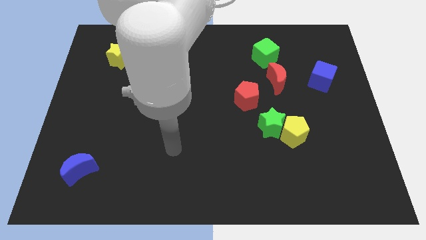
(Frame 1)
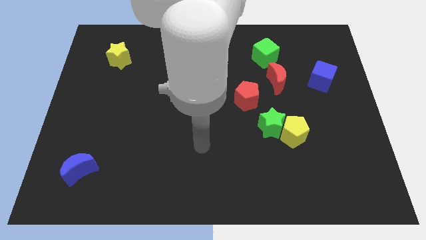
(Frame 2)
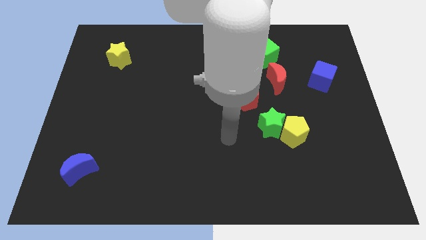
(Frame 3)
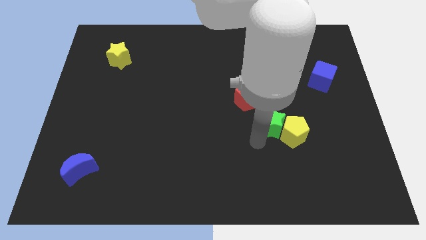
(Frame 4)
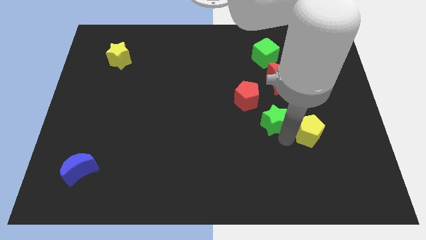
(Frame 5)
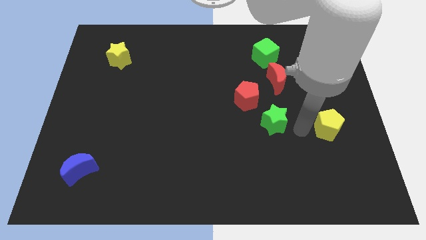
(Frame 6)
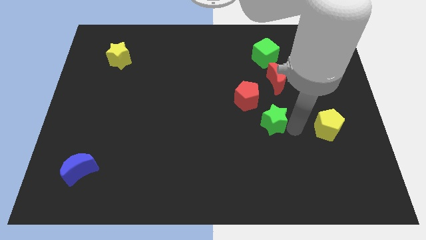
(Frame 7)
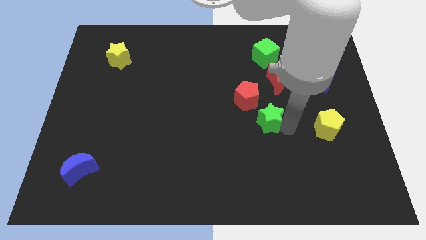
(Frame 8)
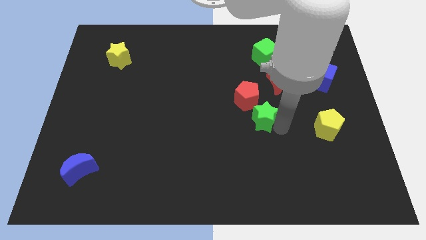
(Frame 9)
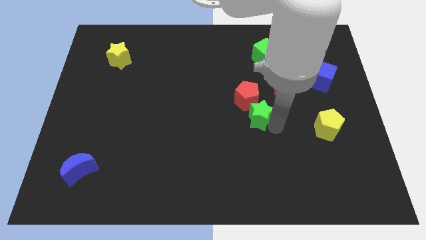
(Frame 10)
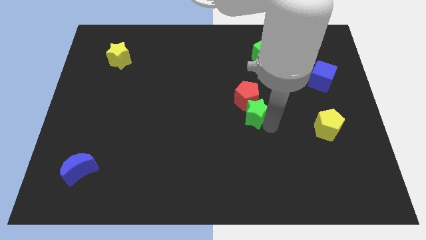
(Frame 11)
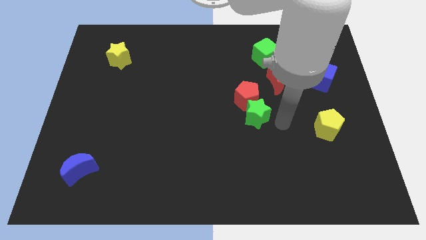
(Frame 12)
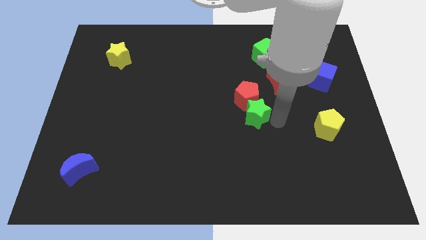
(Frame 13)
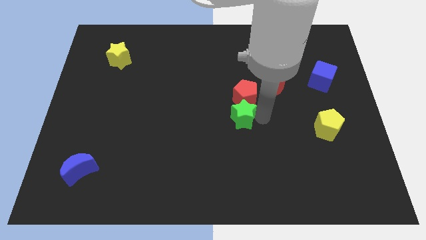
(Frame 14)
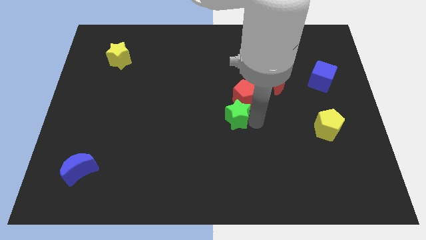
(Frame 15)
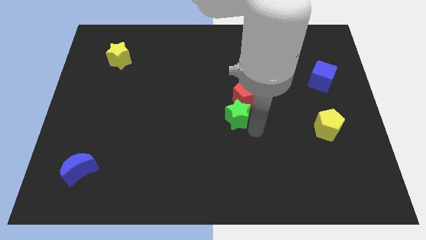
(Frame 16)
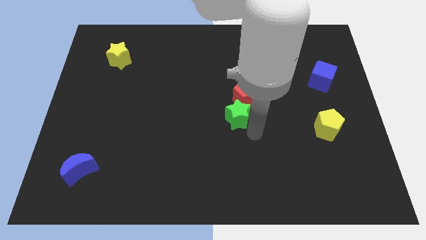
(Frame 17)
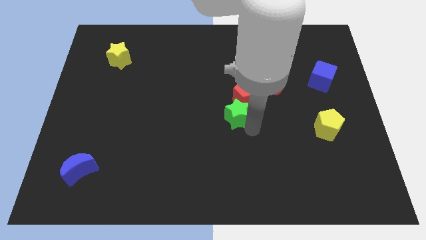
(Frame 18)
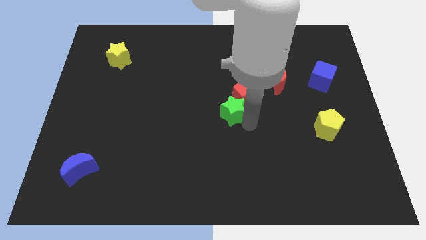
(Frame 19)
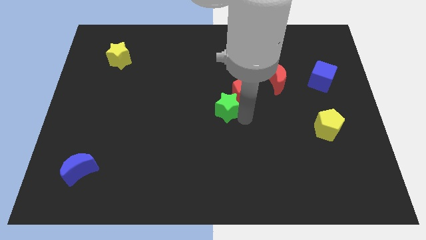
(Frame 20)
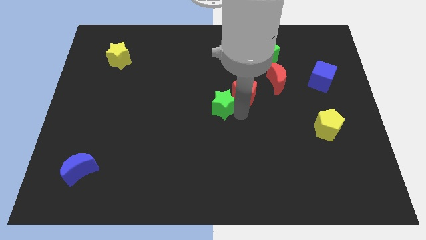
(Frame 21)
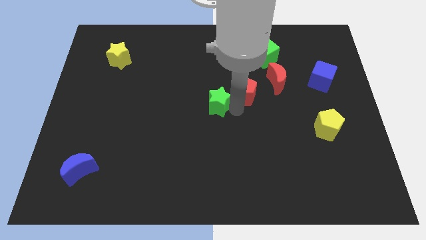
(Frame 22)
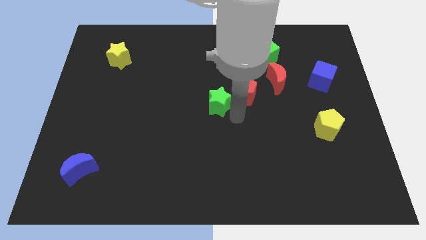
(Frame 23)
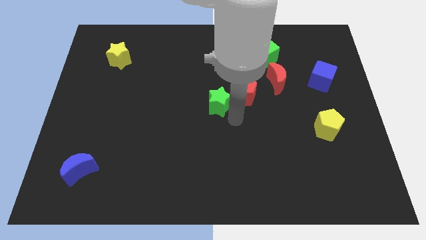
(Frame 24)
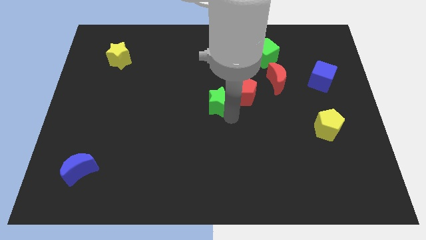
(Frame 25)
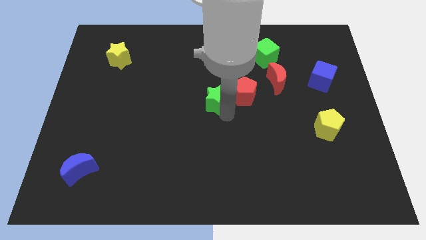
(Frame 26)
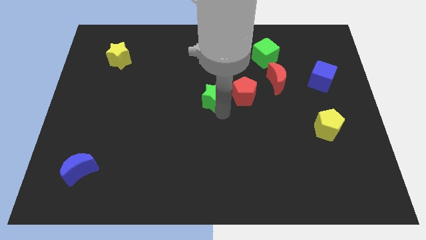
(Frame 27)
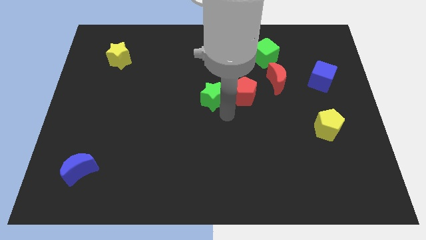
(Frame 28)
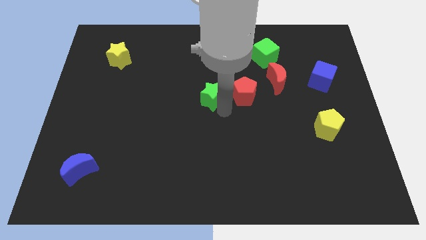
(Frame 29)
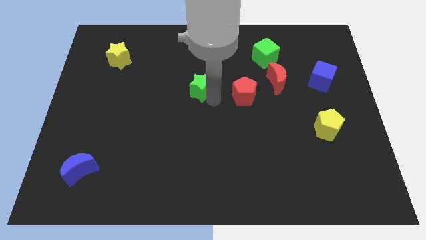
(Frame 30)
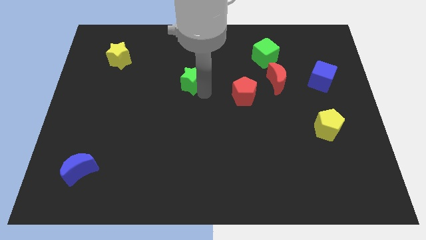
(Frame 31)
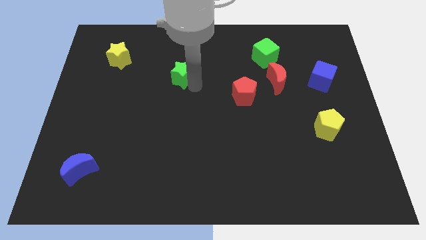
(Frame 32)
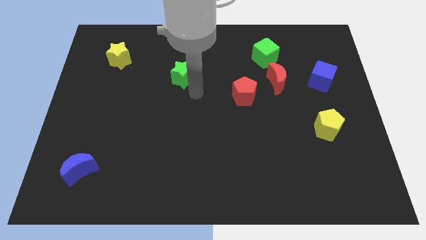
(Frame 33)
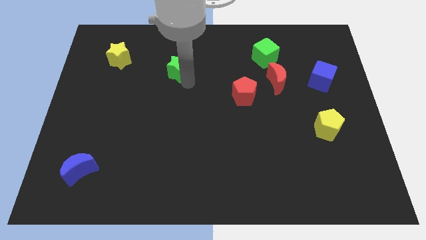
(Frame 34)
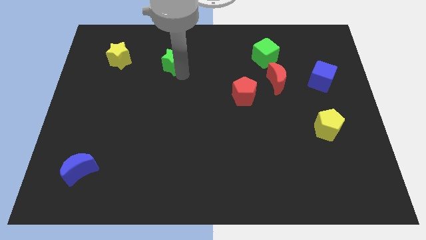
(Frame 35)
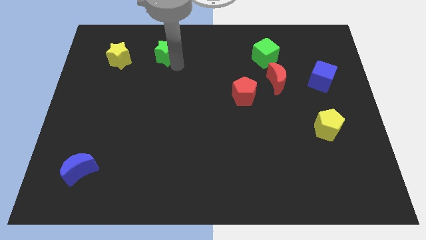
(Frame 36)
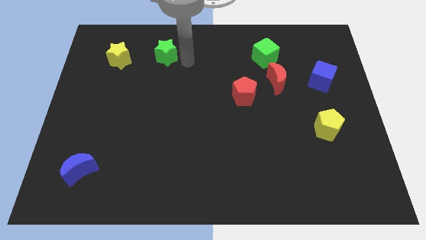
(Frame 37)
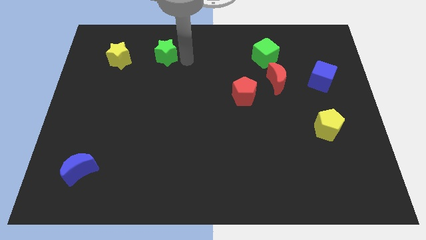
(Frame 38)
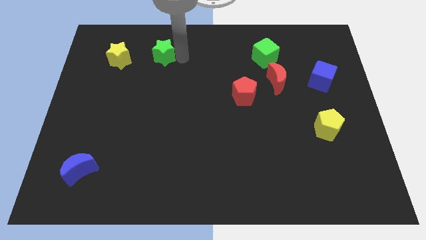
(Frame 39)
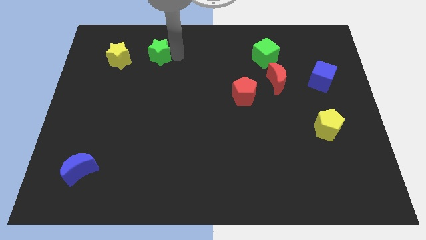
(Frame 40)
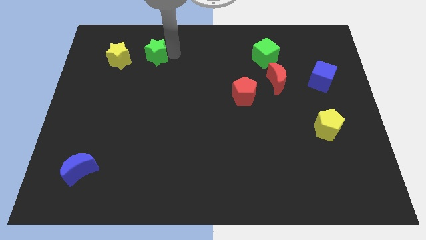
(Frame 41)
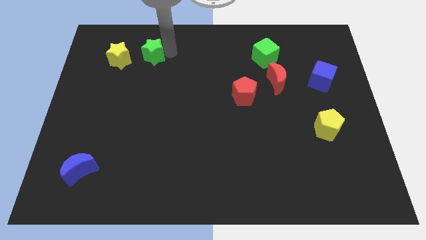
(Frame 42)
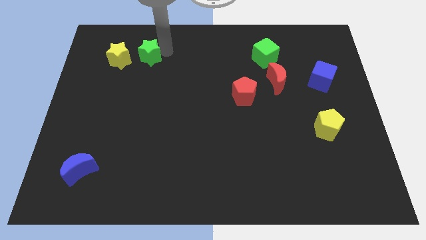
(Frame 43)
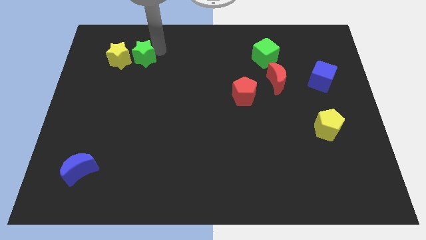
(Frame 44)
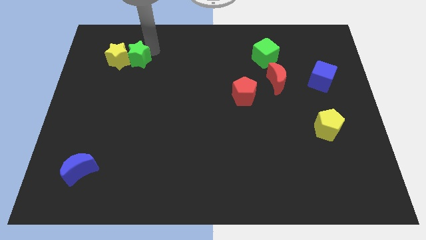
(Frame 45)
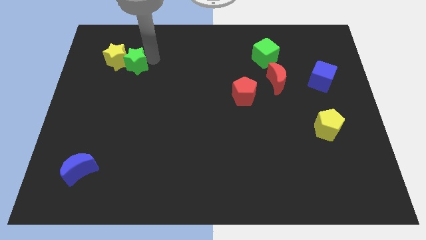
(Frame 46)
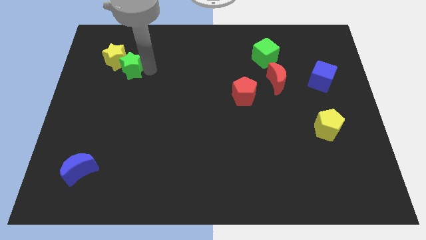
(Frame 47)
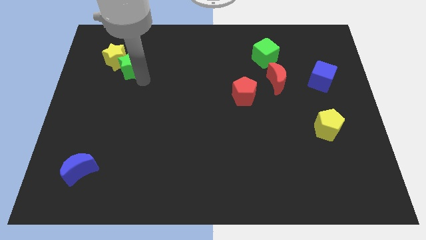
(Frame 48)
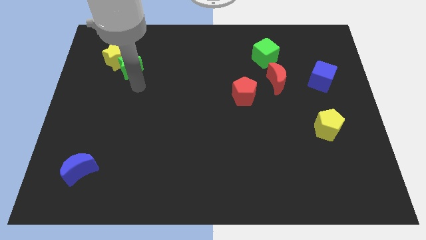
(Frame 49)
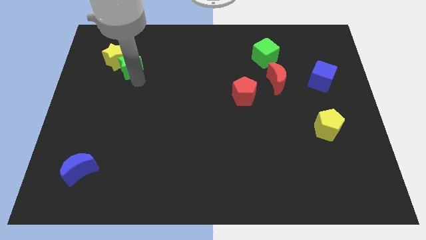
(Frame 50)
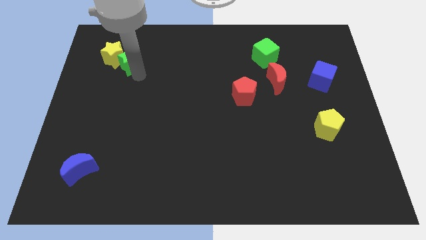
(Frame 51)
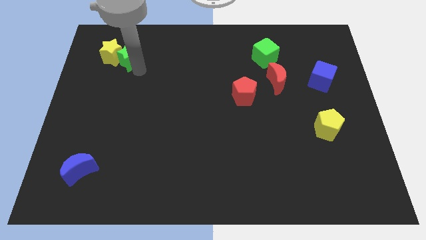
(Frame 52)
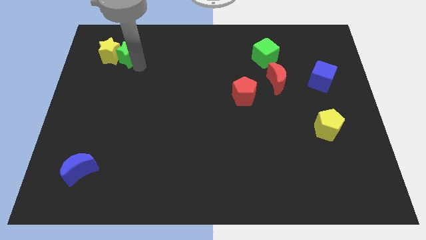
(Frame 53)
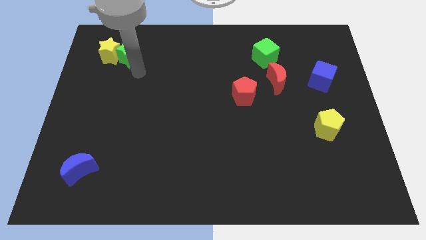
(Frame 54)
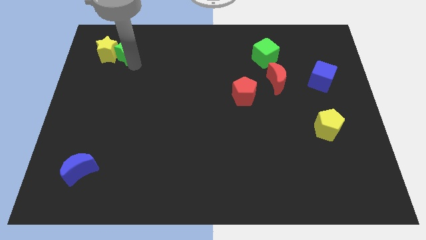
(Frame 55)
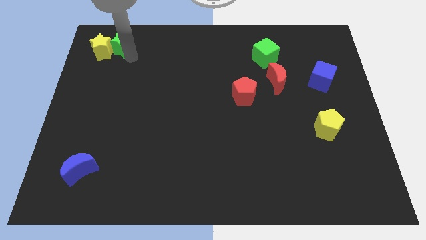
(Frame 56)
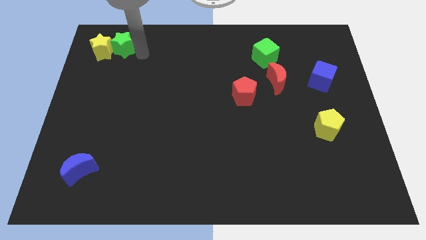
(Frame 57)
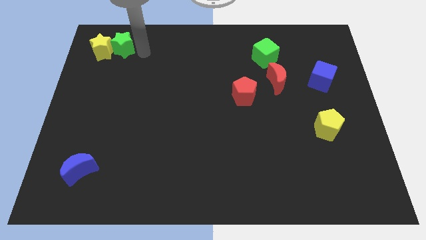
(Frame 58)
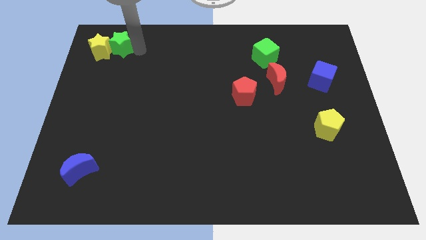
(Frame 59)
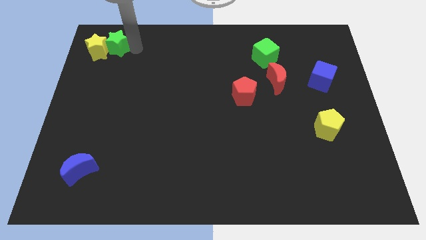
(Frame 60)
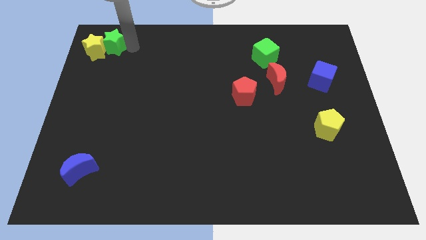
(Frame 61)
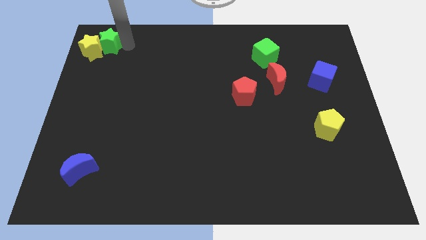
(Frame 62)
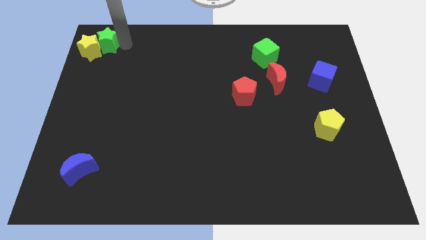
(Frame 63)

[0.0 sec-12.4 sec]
push the green star to the top left

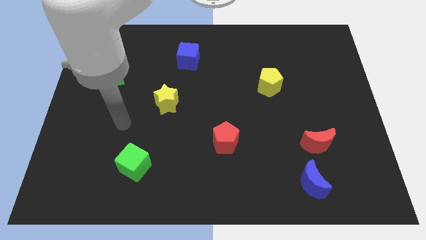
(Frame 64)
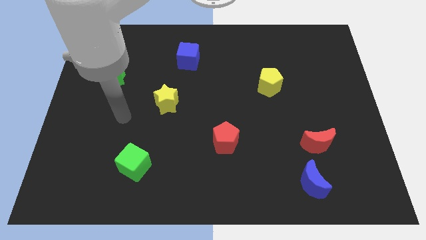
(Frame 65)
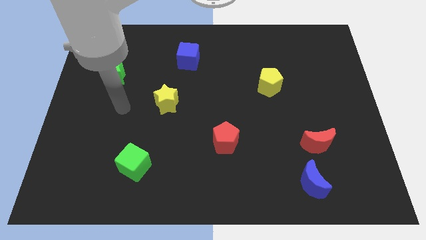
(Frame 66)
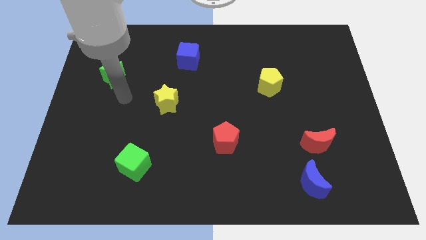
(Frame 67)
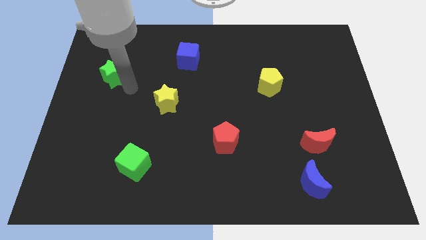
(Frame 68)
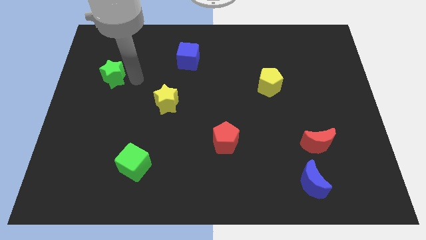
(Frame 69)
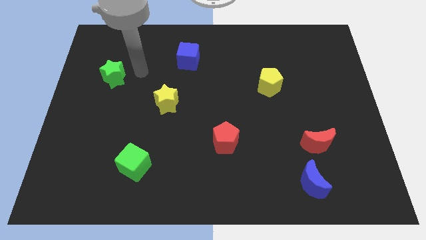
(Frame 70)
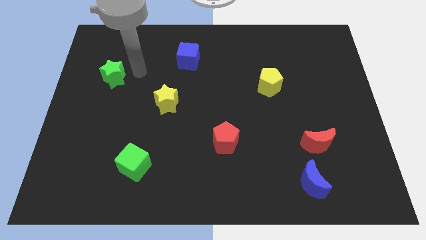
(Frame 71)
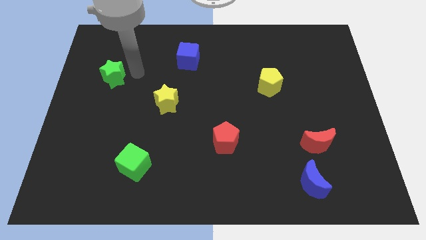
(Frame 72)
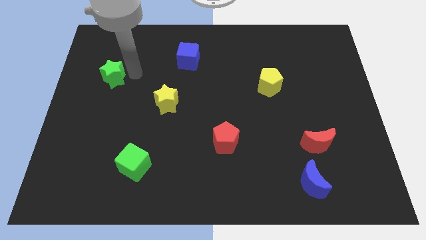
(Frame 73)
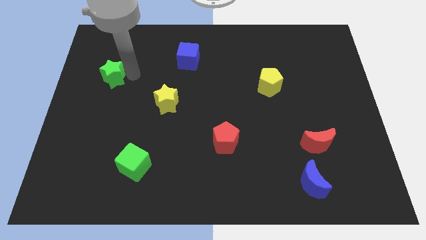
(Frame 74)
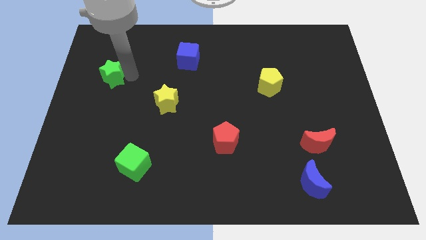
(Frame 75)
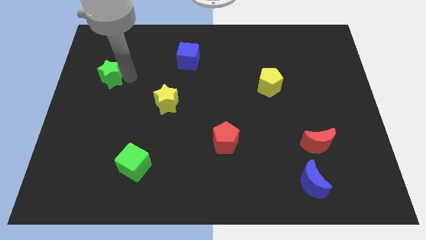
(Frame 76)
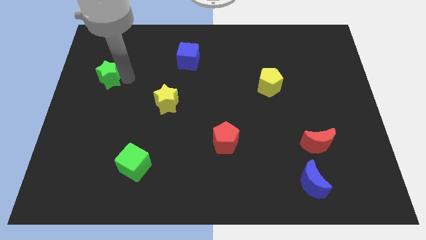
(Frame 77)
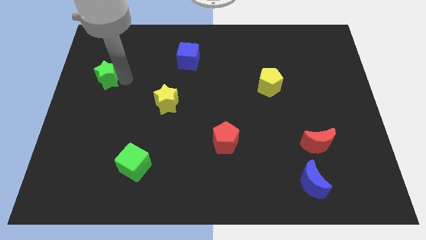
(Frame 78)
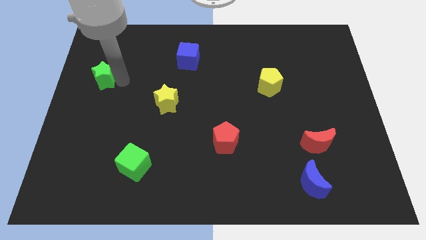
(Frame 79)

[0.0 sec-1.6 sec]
put the green star to the left side of the board
